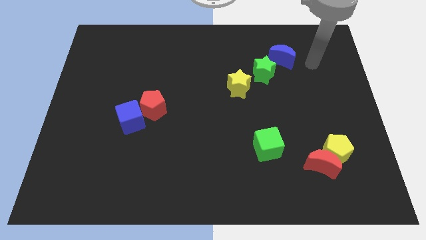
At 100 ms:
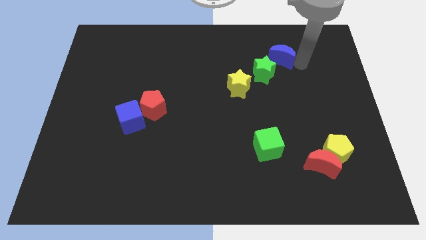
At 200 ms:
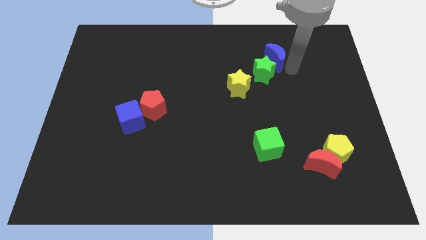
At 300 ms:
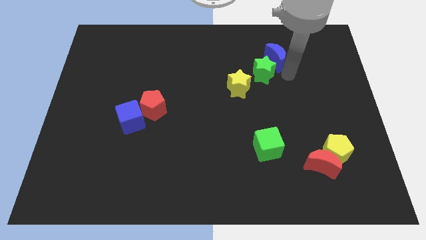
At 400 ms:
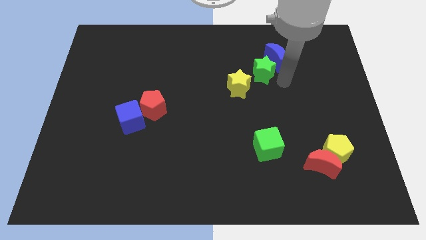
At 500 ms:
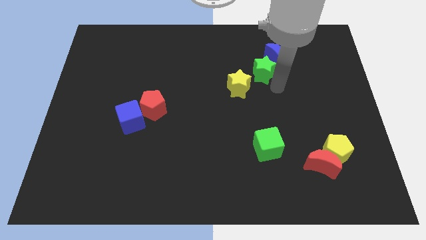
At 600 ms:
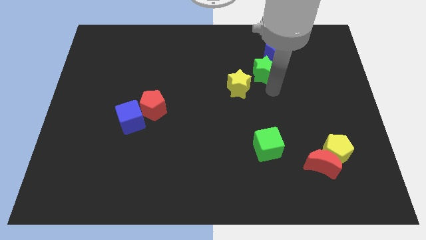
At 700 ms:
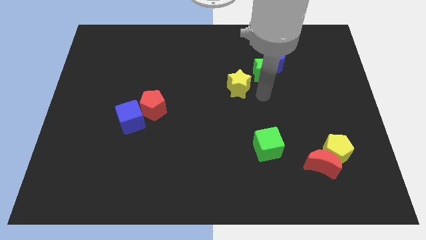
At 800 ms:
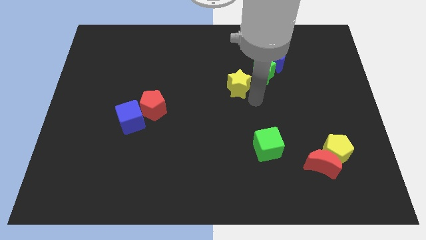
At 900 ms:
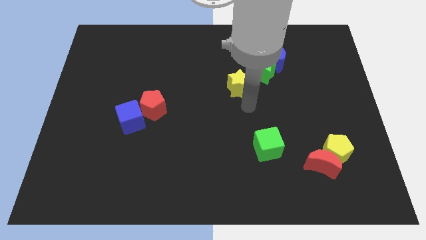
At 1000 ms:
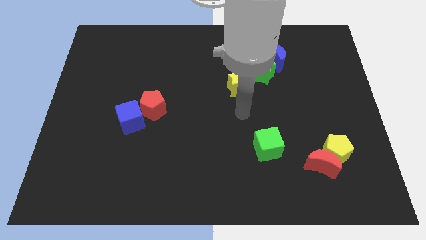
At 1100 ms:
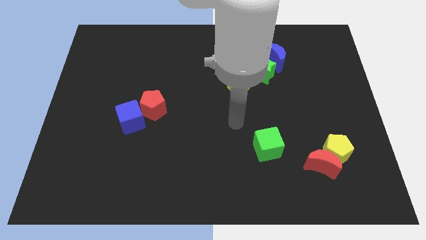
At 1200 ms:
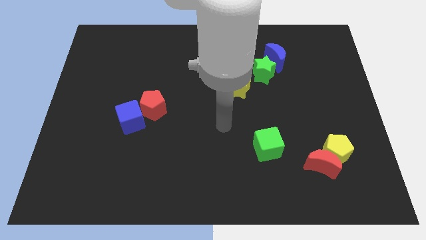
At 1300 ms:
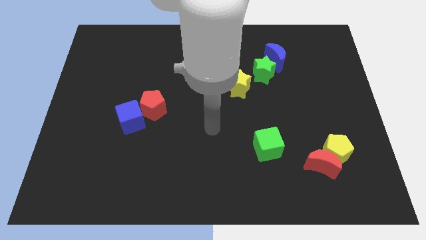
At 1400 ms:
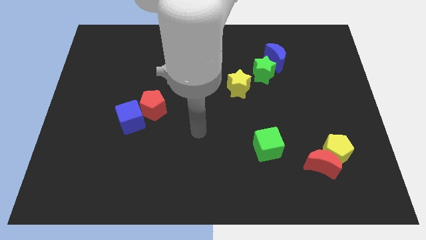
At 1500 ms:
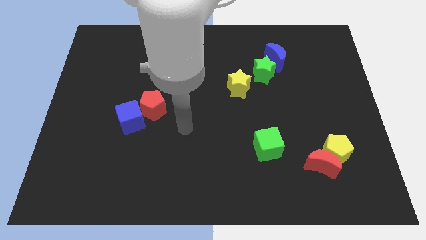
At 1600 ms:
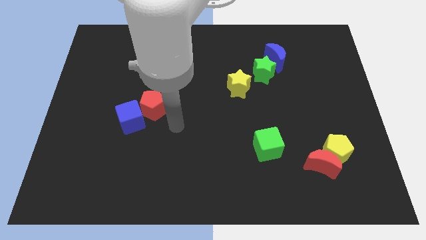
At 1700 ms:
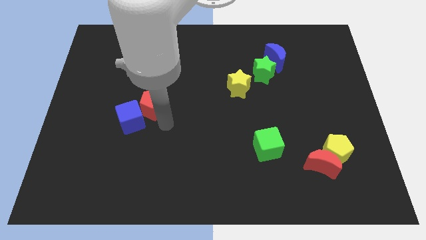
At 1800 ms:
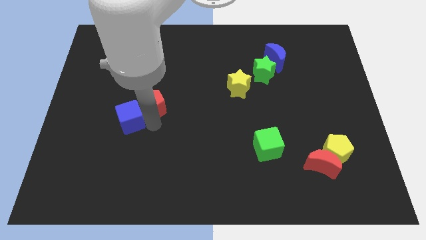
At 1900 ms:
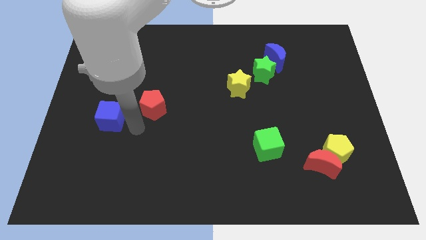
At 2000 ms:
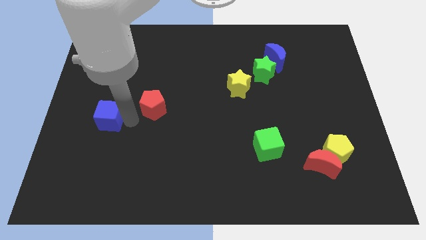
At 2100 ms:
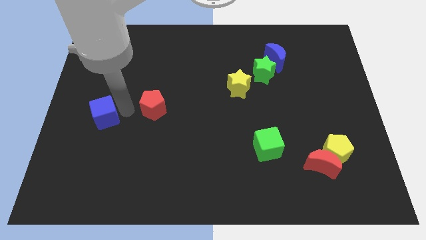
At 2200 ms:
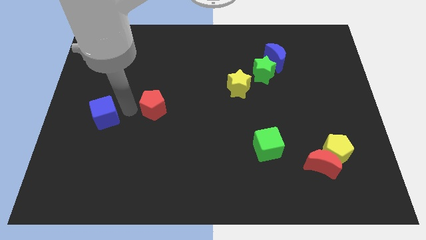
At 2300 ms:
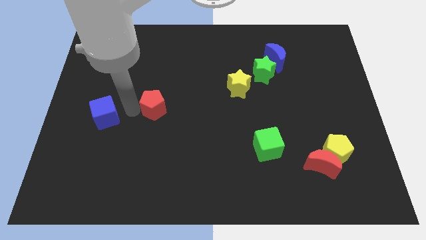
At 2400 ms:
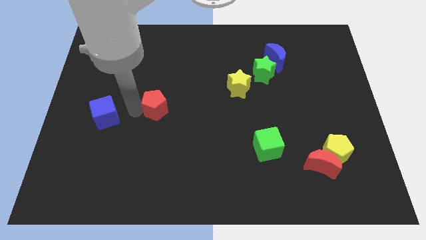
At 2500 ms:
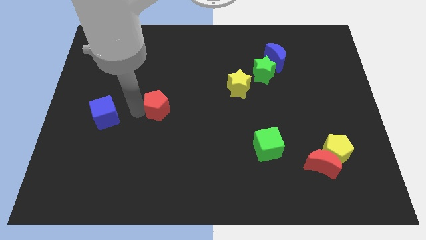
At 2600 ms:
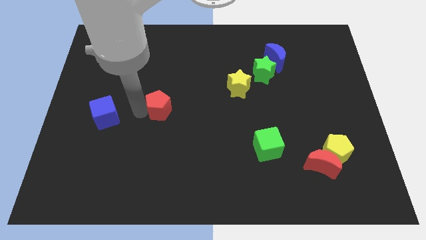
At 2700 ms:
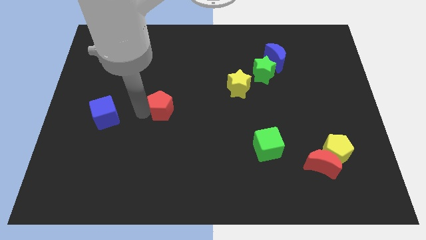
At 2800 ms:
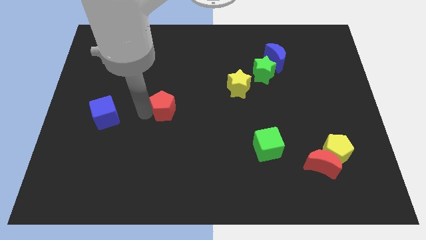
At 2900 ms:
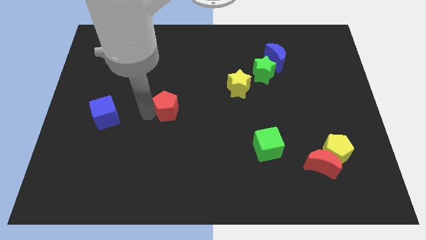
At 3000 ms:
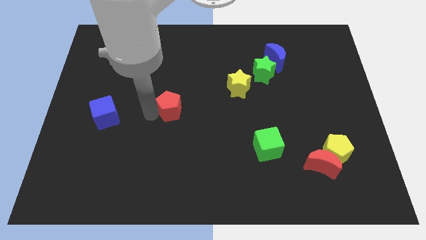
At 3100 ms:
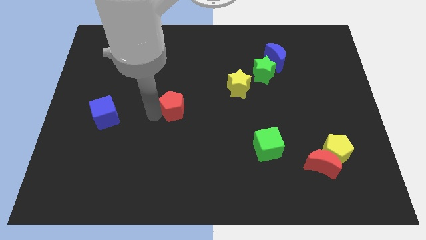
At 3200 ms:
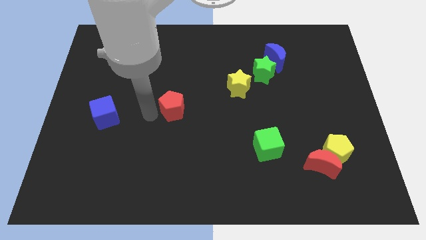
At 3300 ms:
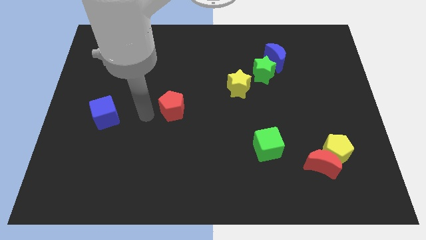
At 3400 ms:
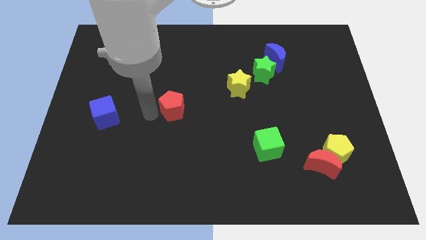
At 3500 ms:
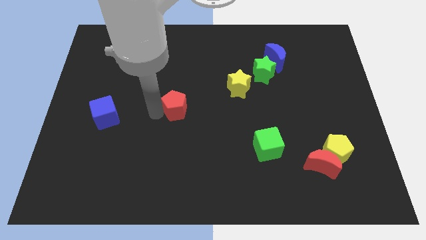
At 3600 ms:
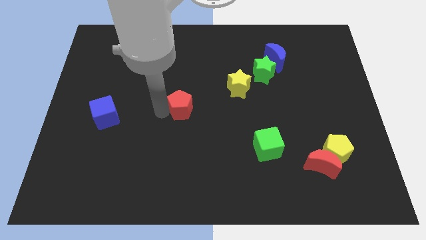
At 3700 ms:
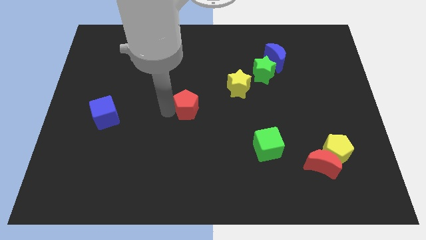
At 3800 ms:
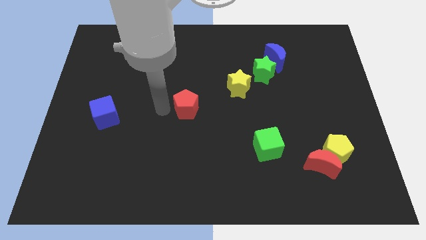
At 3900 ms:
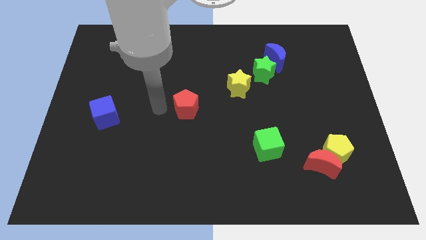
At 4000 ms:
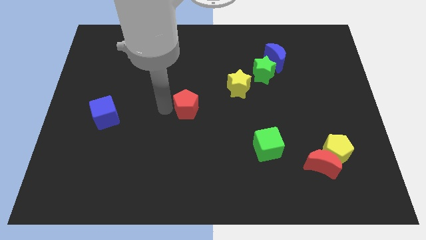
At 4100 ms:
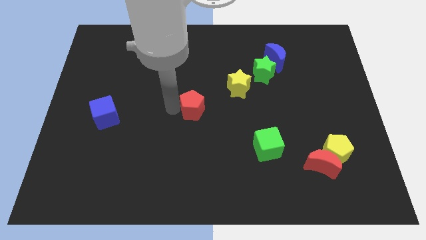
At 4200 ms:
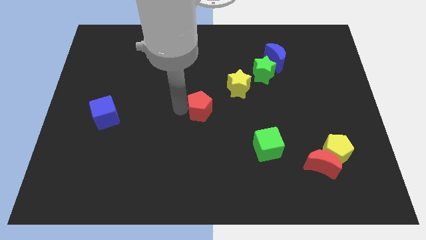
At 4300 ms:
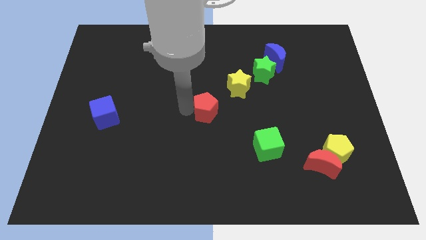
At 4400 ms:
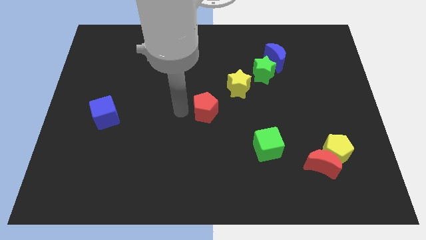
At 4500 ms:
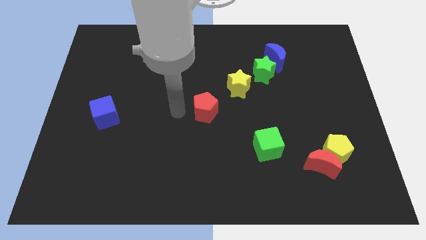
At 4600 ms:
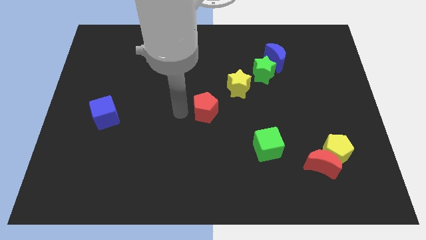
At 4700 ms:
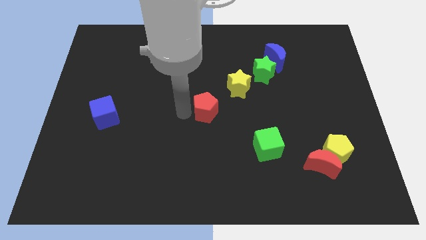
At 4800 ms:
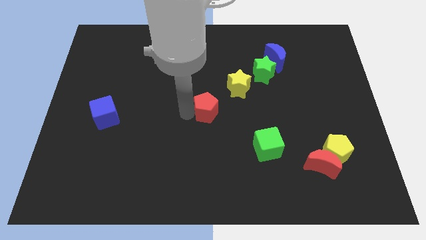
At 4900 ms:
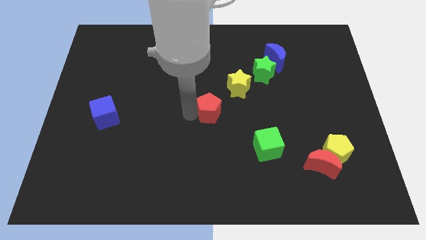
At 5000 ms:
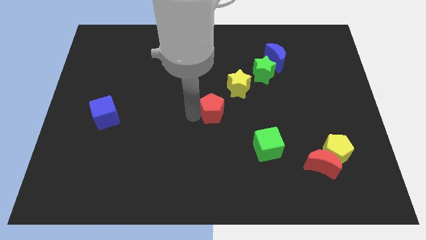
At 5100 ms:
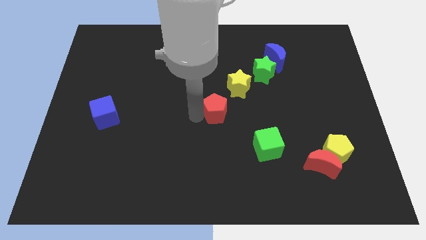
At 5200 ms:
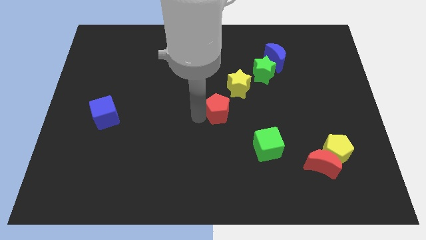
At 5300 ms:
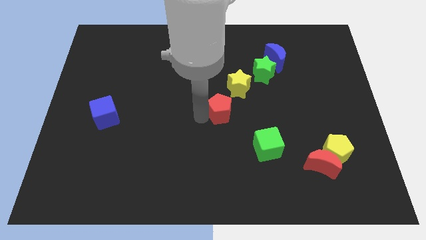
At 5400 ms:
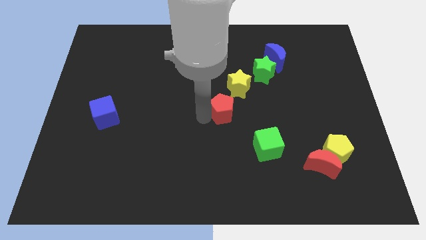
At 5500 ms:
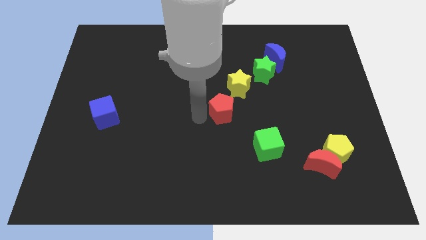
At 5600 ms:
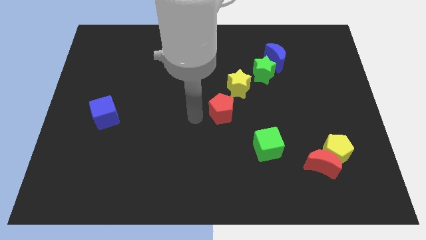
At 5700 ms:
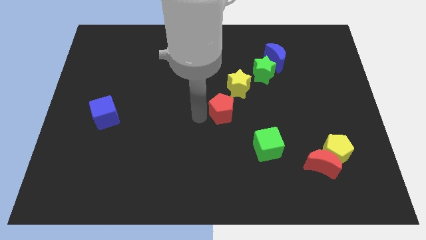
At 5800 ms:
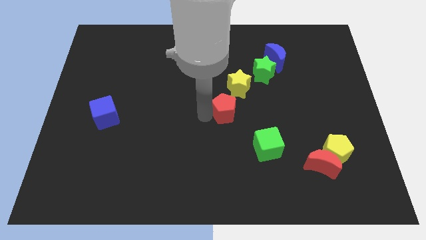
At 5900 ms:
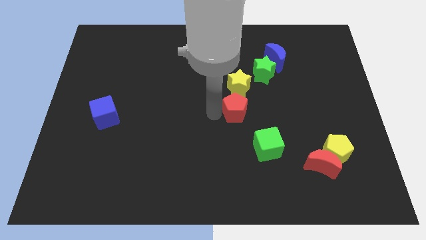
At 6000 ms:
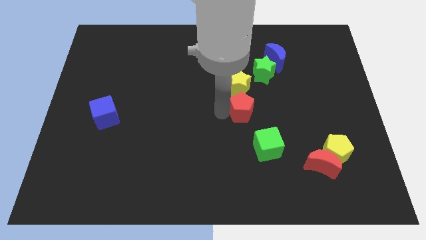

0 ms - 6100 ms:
slide the red pentagon to the right

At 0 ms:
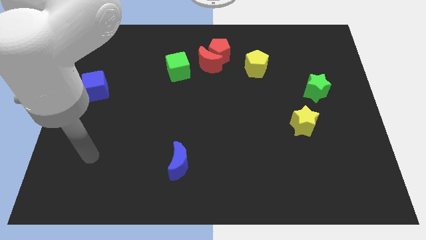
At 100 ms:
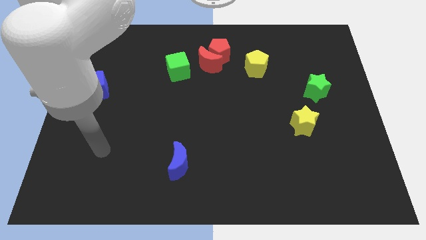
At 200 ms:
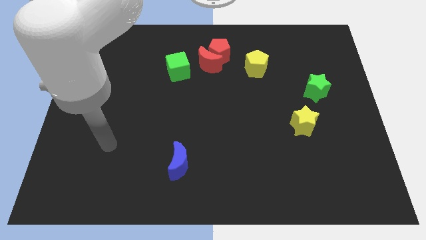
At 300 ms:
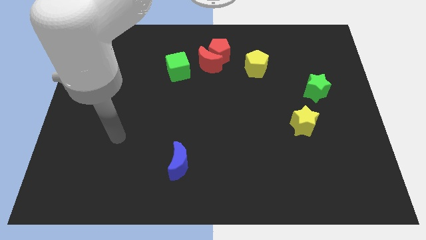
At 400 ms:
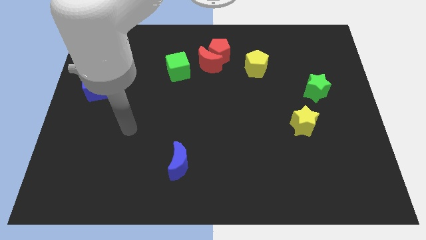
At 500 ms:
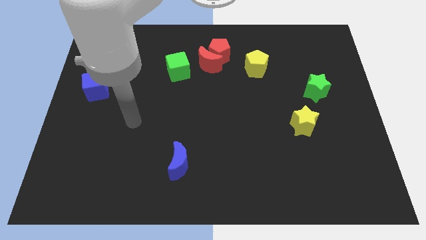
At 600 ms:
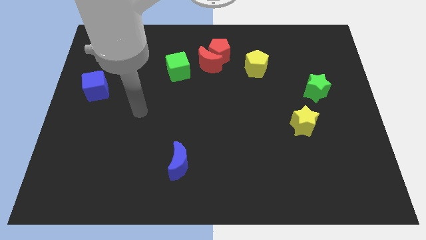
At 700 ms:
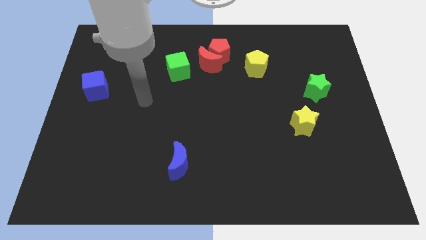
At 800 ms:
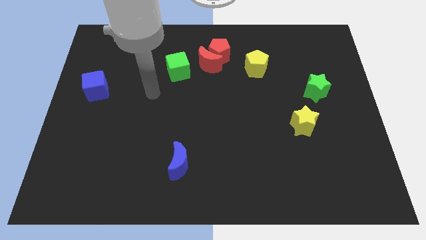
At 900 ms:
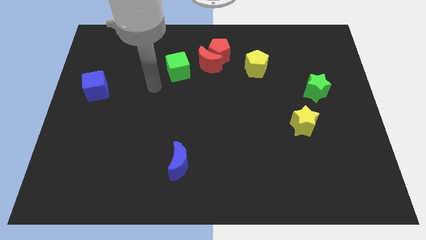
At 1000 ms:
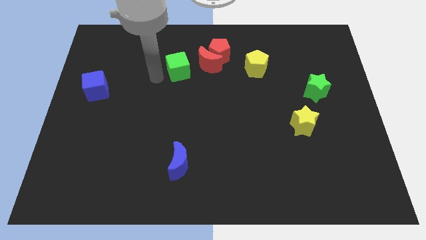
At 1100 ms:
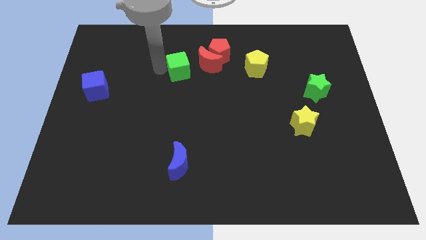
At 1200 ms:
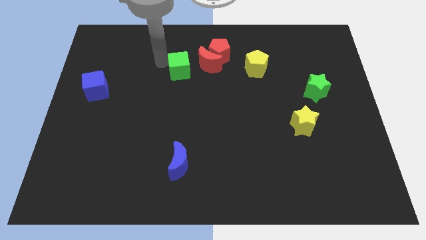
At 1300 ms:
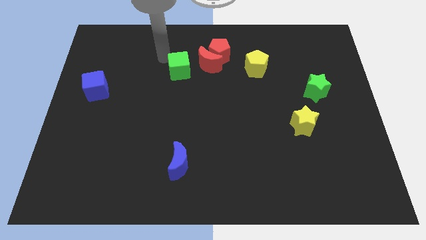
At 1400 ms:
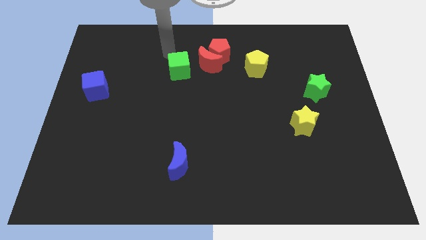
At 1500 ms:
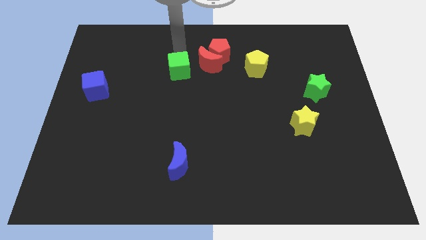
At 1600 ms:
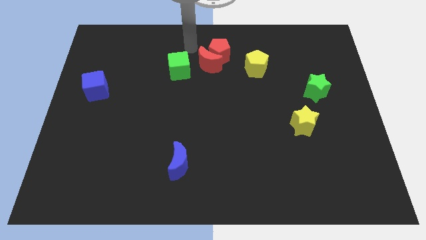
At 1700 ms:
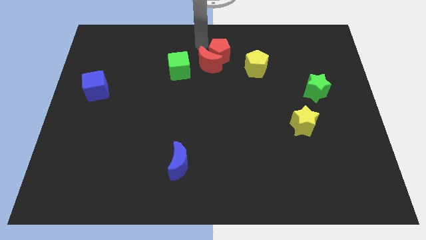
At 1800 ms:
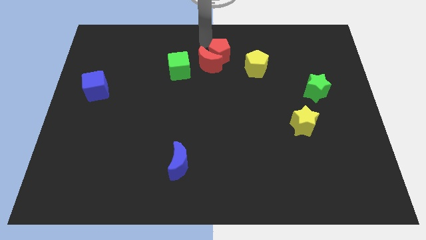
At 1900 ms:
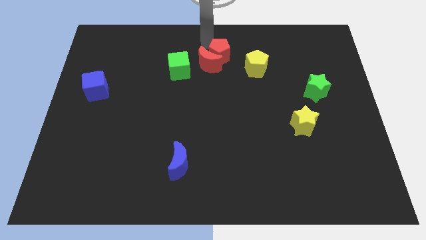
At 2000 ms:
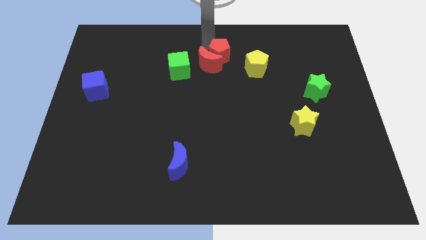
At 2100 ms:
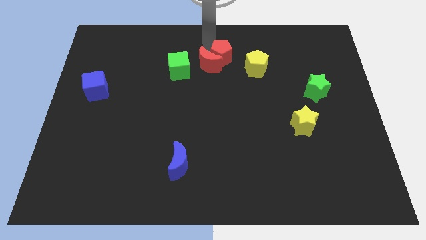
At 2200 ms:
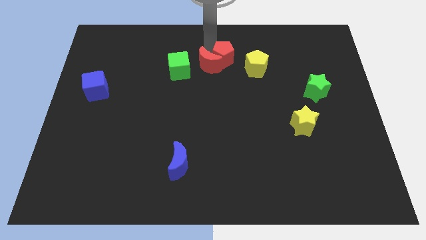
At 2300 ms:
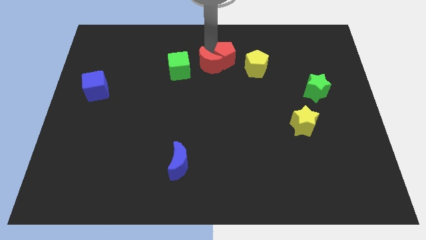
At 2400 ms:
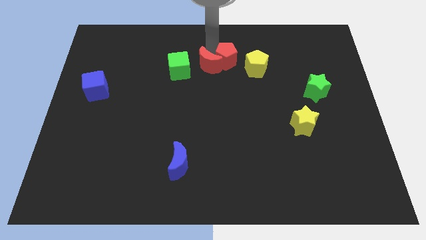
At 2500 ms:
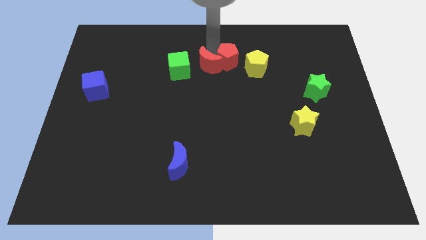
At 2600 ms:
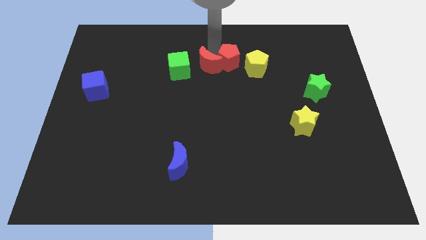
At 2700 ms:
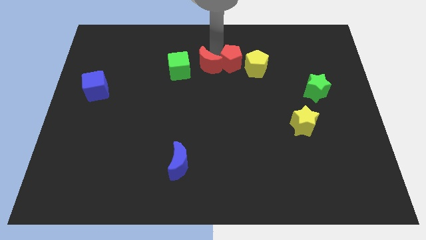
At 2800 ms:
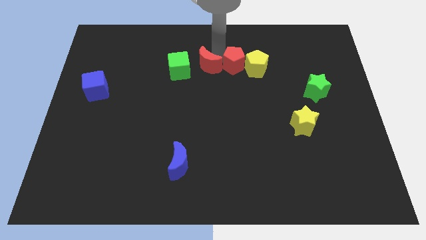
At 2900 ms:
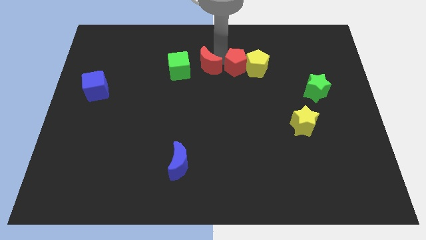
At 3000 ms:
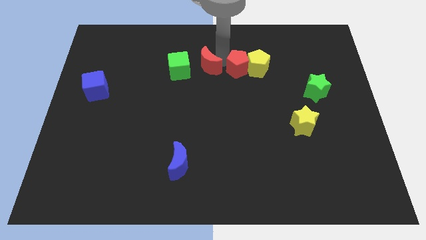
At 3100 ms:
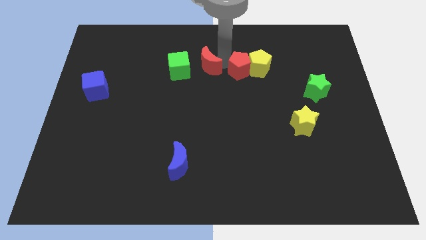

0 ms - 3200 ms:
move the red pentagon downwards and then right a little bit
